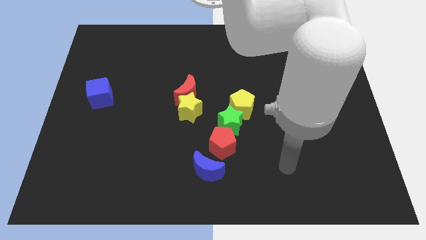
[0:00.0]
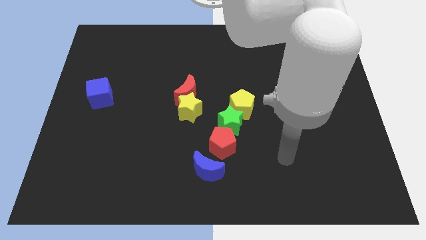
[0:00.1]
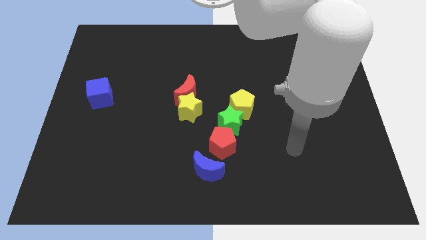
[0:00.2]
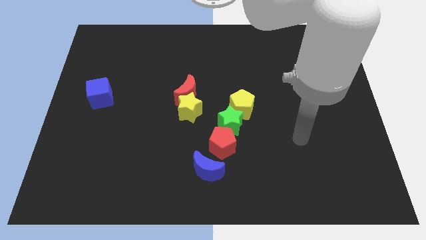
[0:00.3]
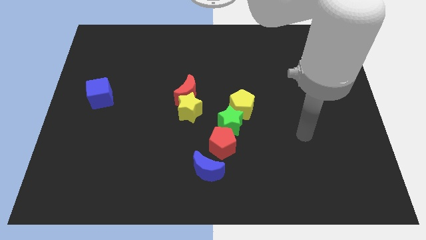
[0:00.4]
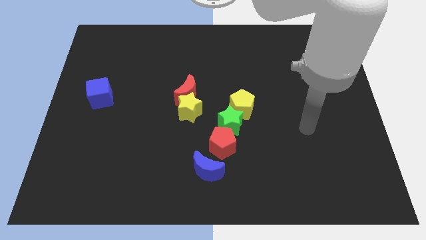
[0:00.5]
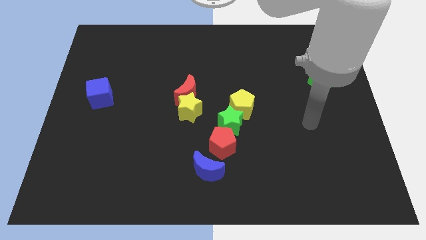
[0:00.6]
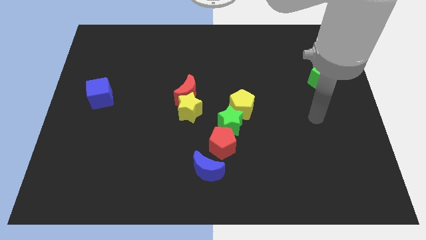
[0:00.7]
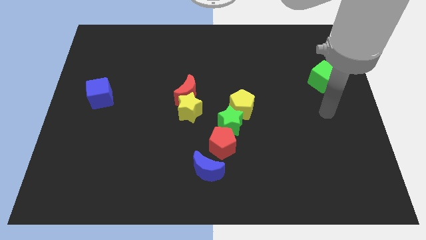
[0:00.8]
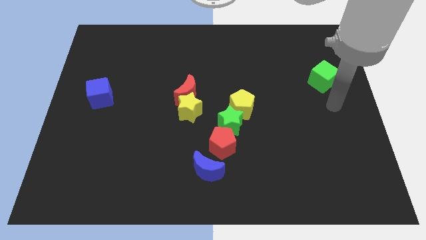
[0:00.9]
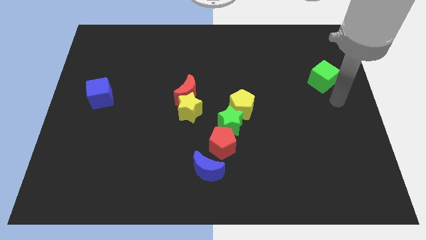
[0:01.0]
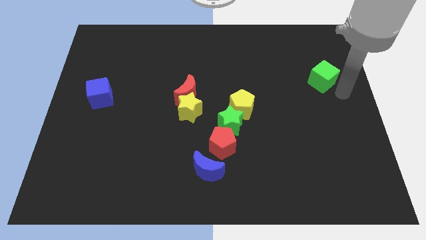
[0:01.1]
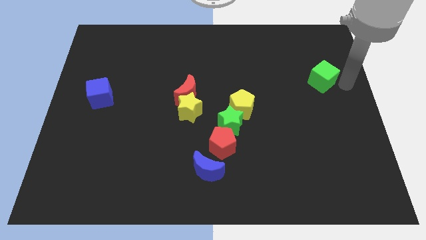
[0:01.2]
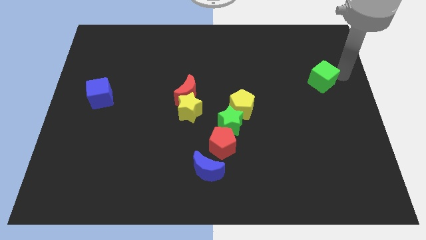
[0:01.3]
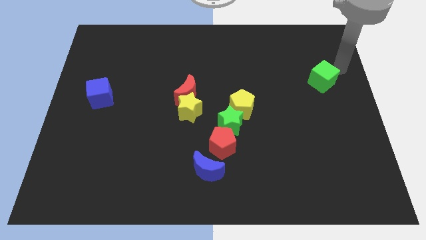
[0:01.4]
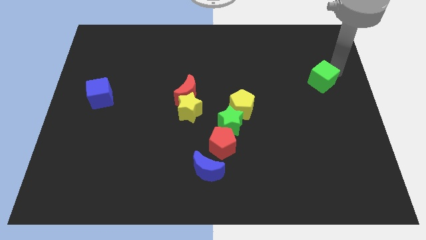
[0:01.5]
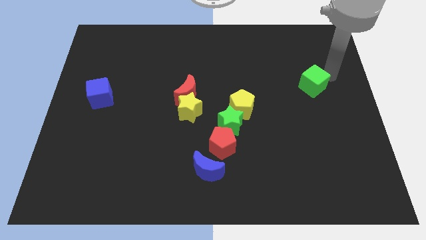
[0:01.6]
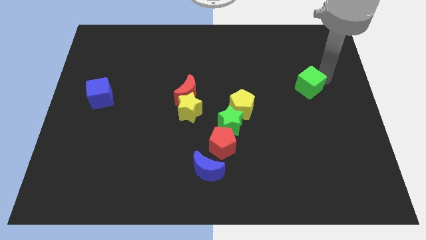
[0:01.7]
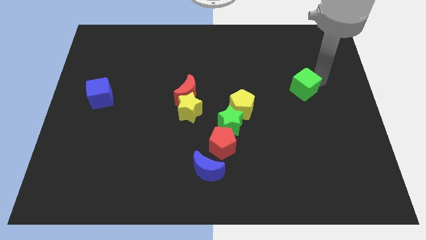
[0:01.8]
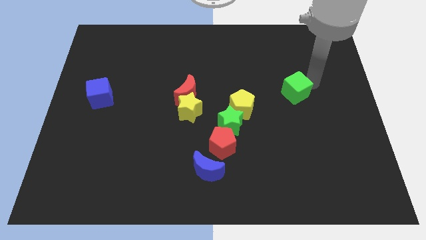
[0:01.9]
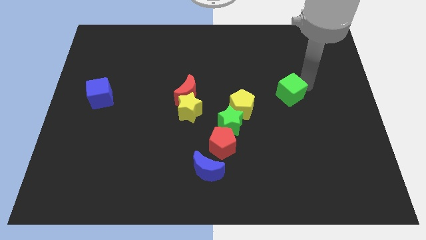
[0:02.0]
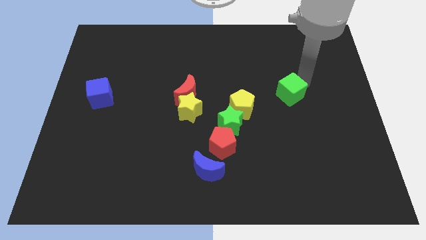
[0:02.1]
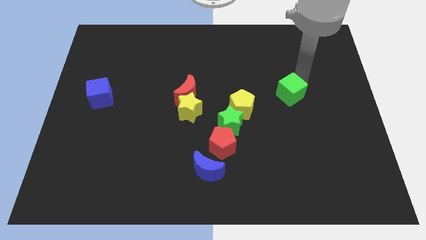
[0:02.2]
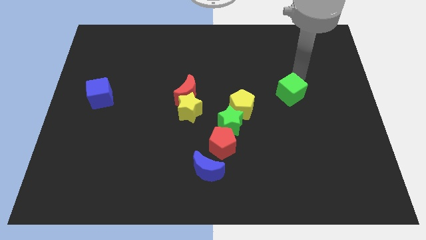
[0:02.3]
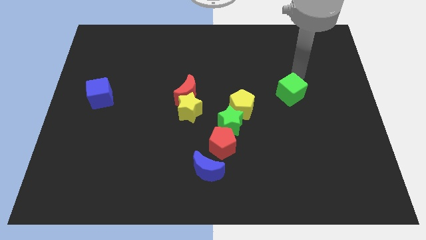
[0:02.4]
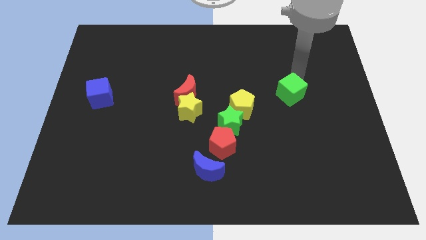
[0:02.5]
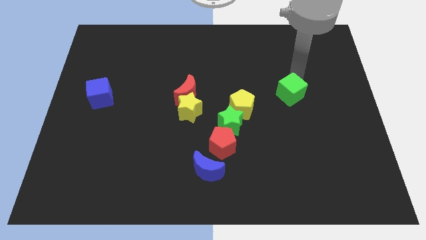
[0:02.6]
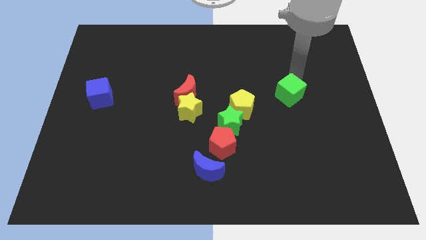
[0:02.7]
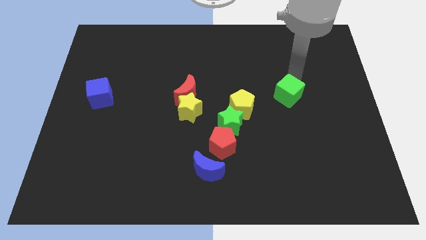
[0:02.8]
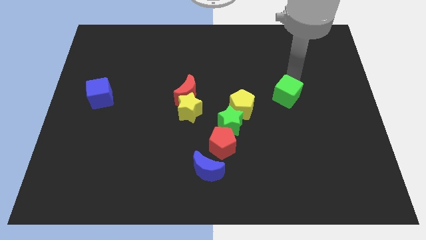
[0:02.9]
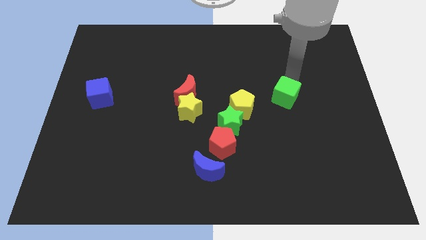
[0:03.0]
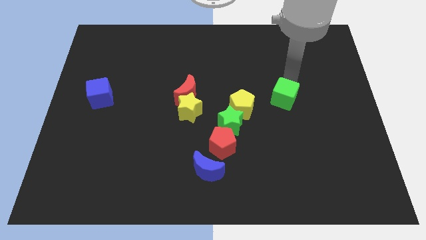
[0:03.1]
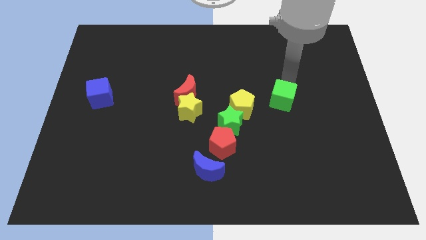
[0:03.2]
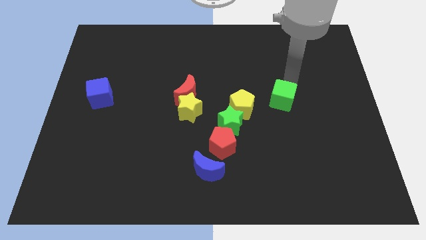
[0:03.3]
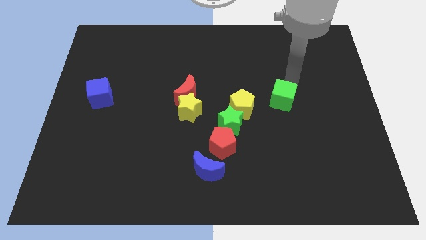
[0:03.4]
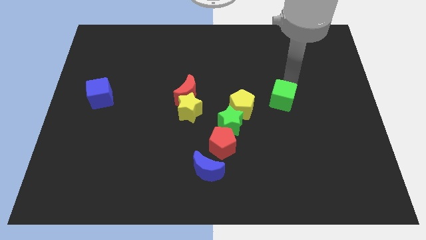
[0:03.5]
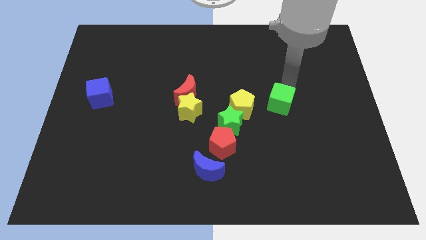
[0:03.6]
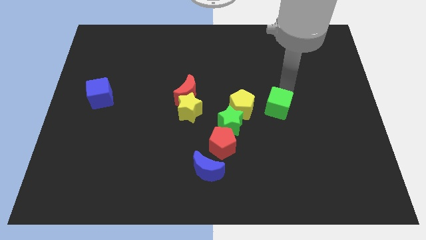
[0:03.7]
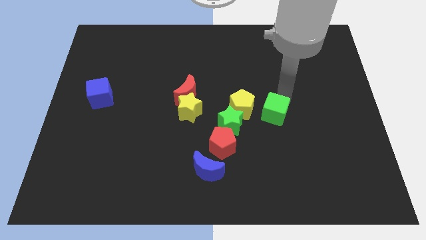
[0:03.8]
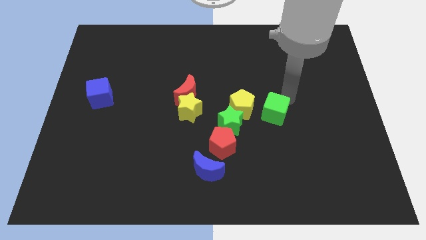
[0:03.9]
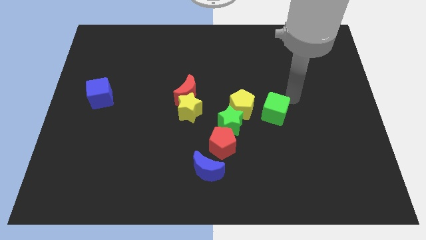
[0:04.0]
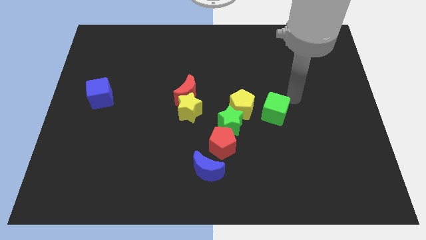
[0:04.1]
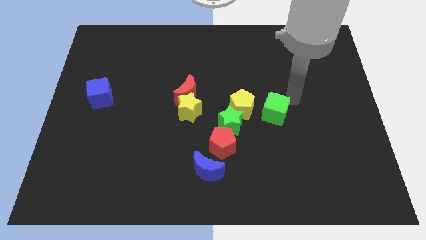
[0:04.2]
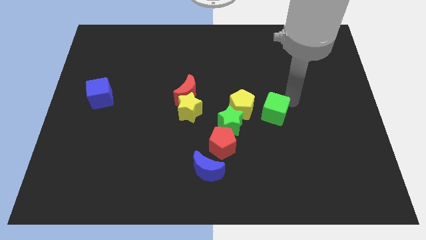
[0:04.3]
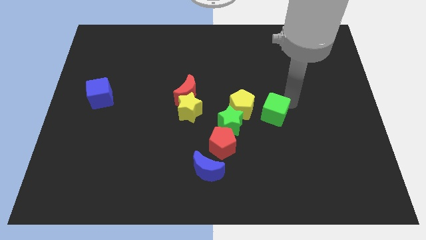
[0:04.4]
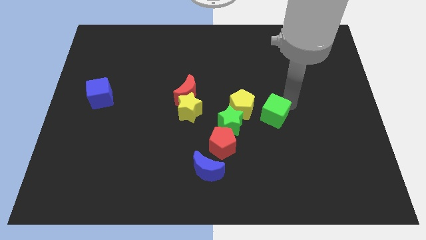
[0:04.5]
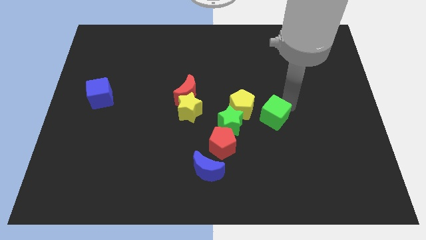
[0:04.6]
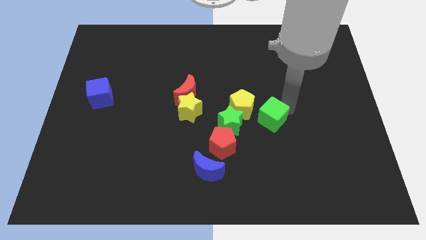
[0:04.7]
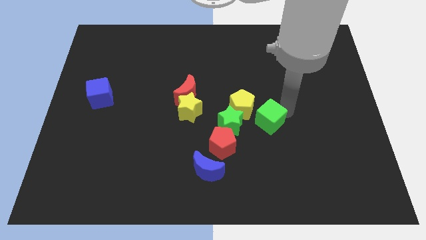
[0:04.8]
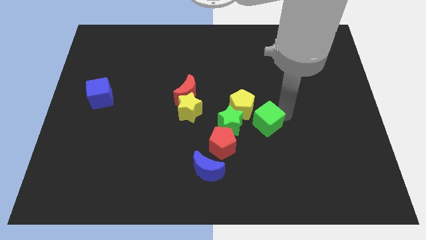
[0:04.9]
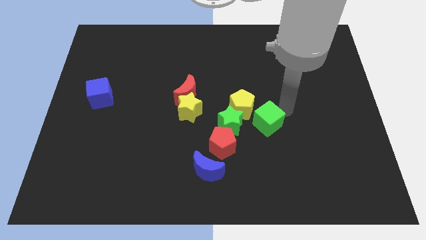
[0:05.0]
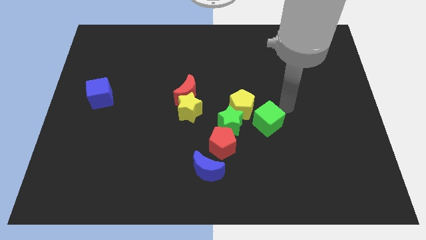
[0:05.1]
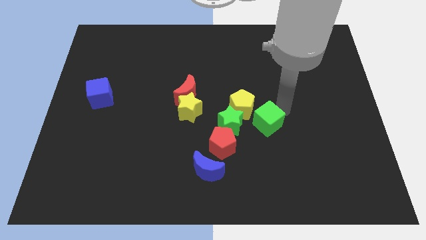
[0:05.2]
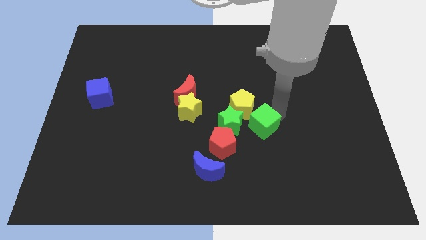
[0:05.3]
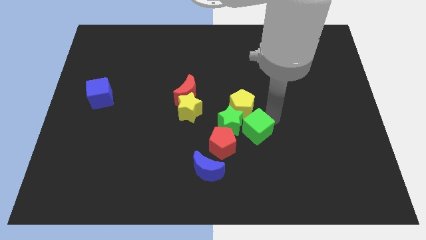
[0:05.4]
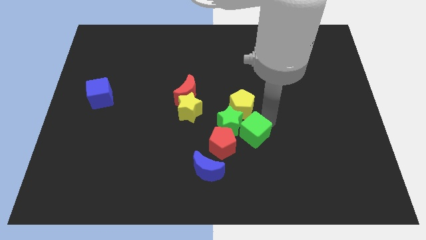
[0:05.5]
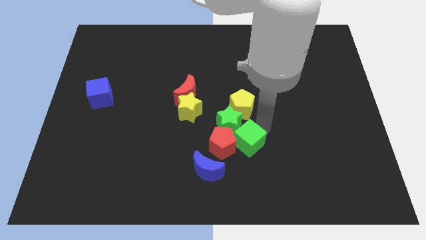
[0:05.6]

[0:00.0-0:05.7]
put the green cube to the red pentagon

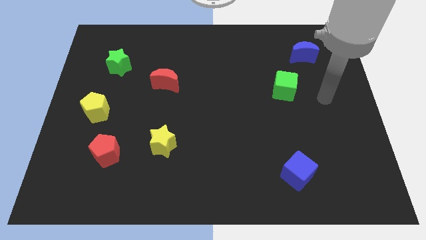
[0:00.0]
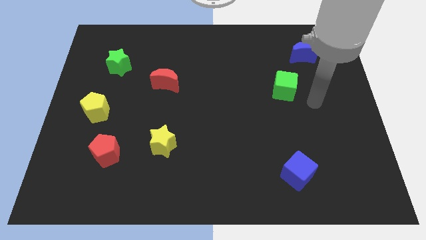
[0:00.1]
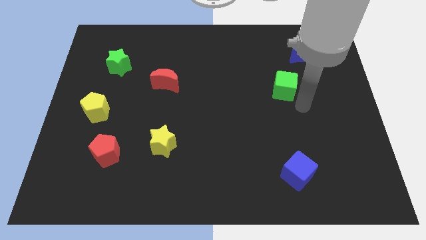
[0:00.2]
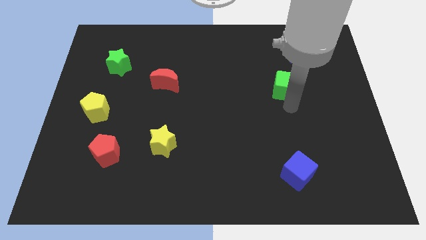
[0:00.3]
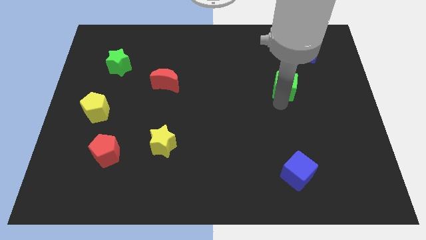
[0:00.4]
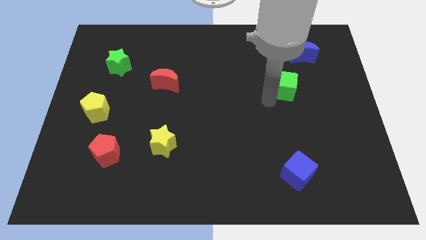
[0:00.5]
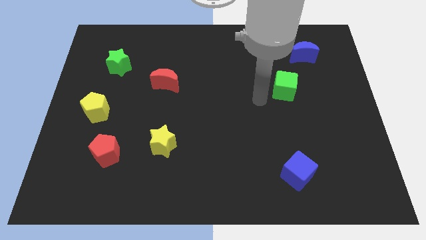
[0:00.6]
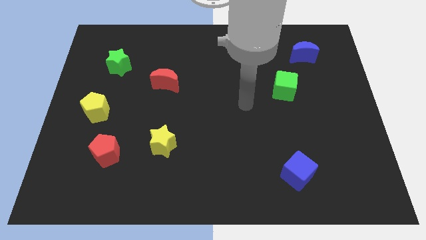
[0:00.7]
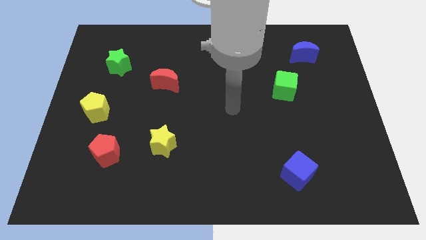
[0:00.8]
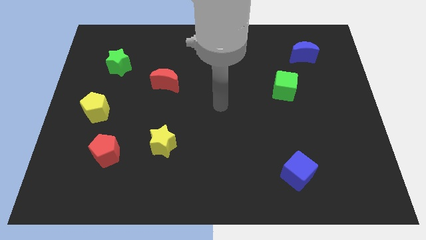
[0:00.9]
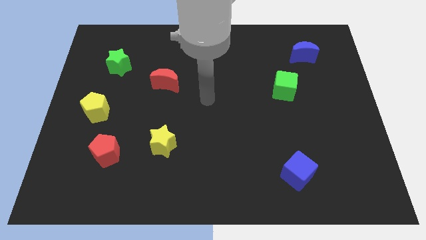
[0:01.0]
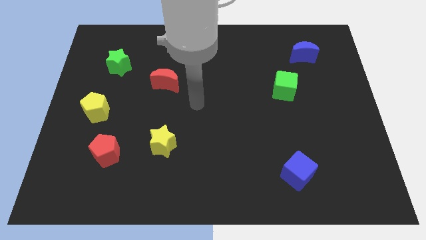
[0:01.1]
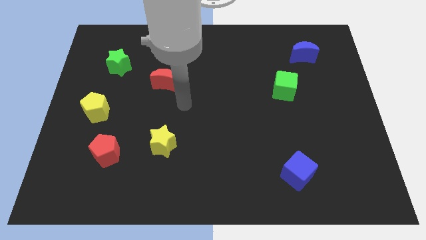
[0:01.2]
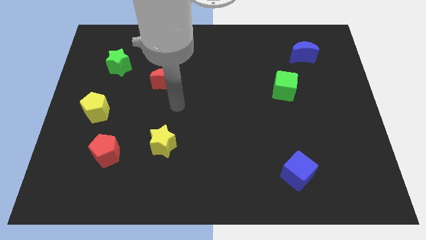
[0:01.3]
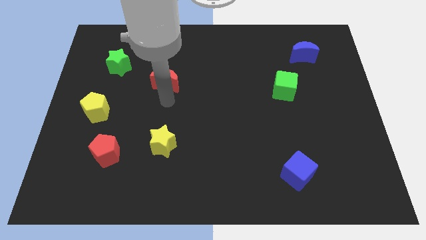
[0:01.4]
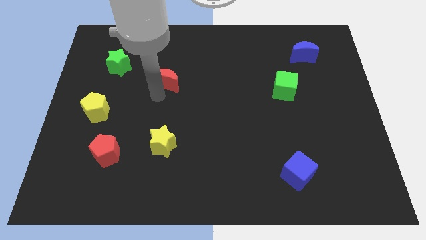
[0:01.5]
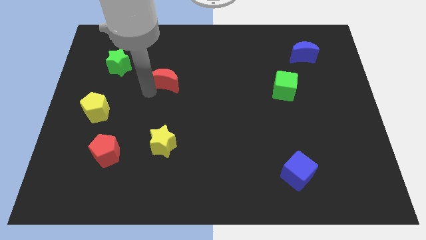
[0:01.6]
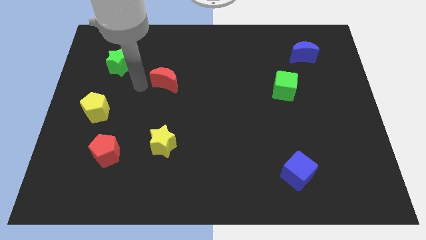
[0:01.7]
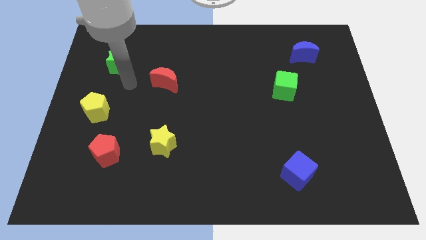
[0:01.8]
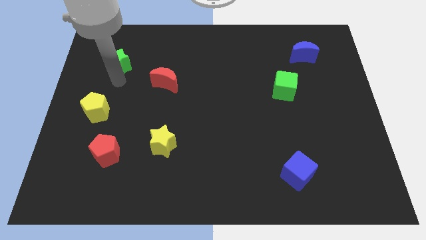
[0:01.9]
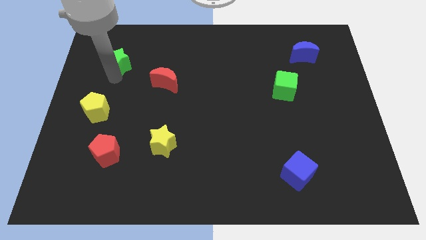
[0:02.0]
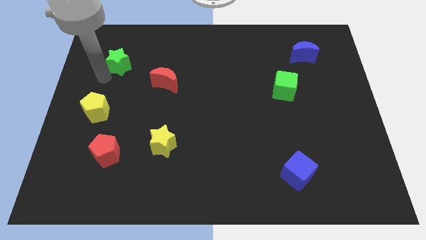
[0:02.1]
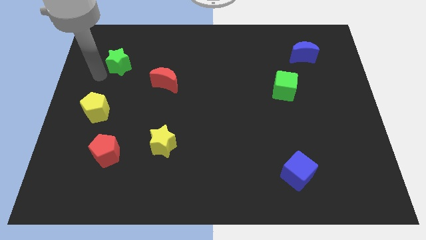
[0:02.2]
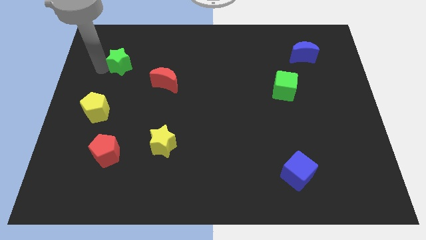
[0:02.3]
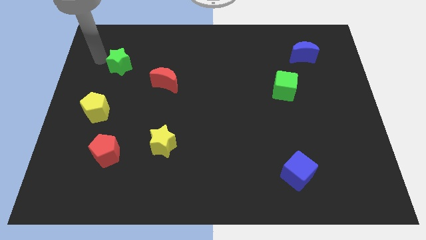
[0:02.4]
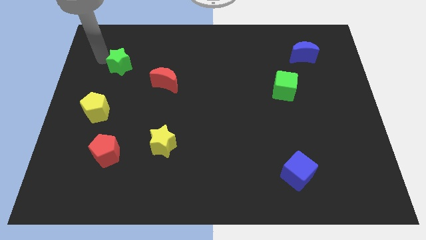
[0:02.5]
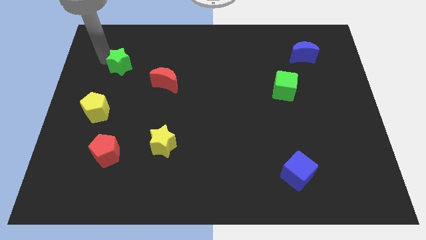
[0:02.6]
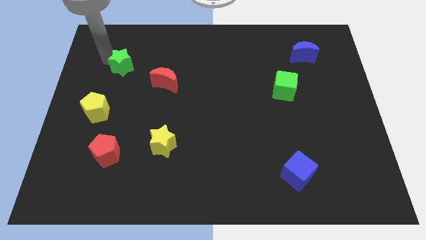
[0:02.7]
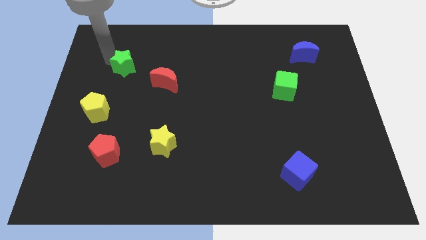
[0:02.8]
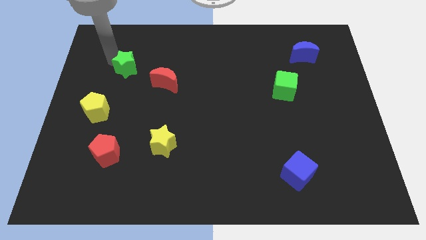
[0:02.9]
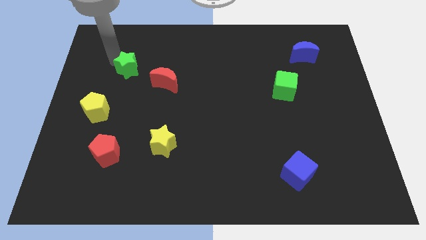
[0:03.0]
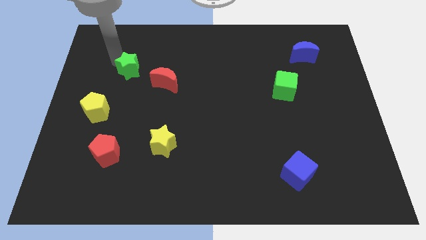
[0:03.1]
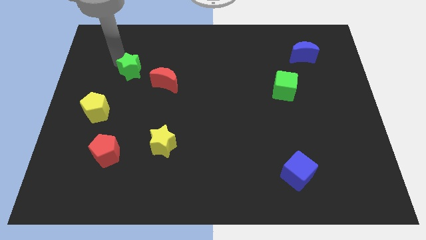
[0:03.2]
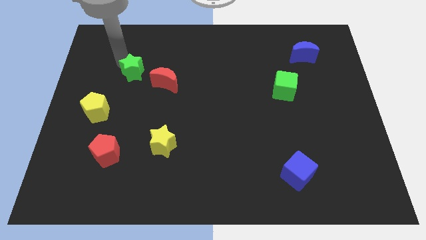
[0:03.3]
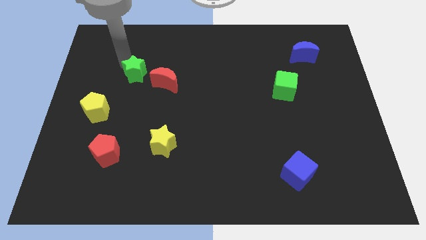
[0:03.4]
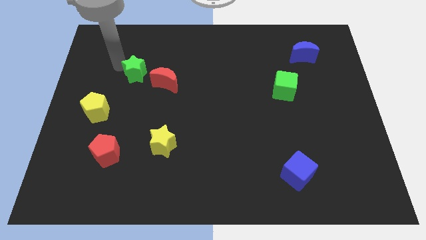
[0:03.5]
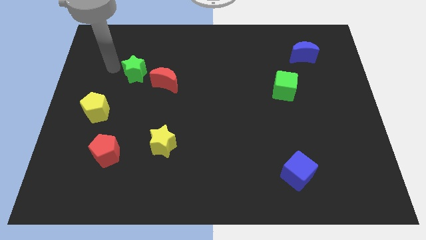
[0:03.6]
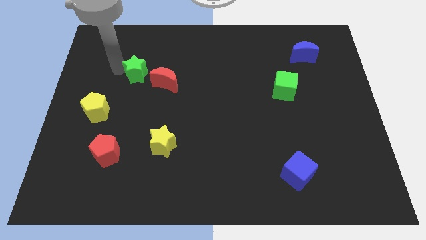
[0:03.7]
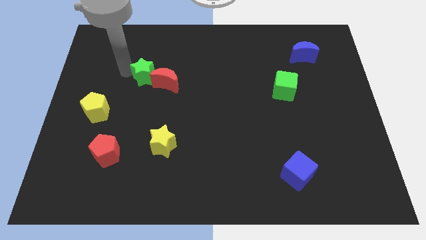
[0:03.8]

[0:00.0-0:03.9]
put the green star close to the red moon
